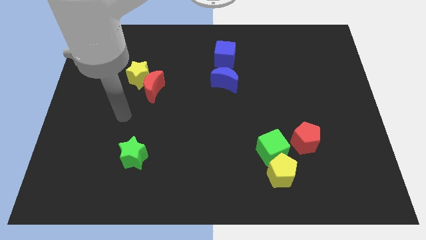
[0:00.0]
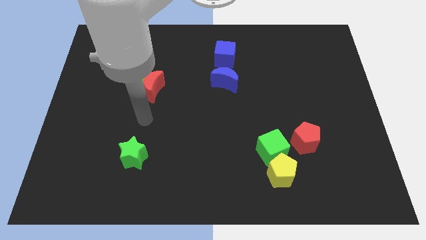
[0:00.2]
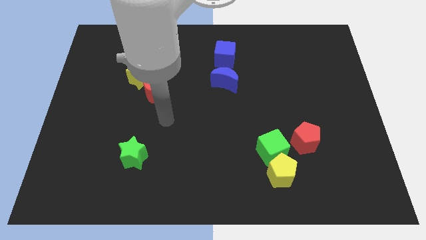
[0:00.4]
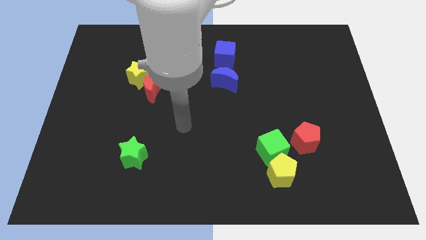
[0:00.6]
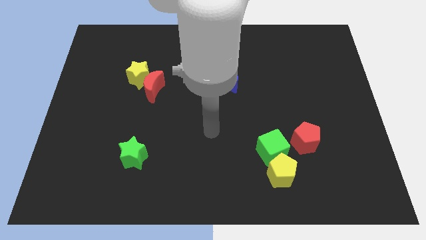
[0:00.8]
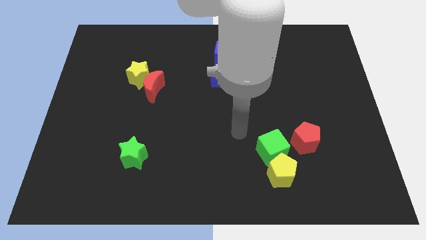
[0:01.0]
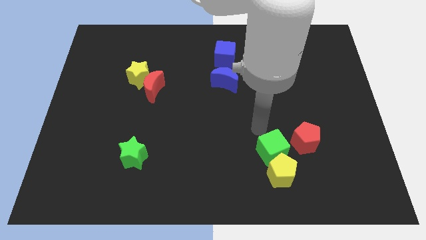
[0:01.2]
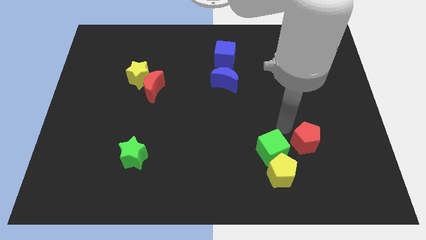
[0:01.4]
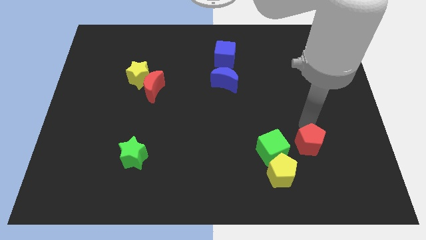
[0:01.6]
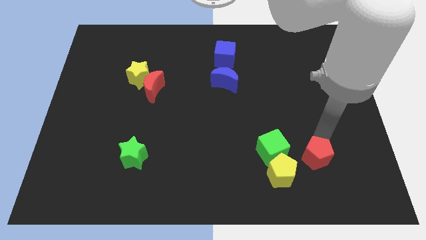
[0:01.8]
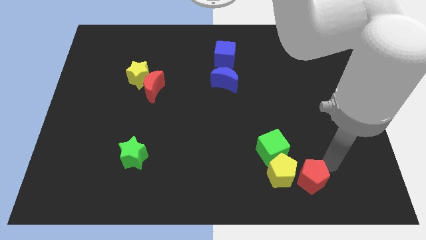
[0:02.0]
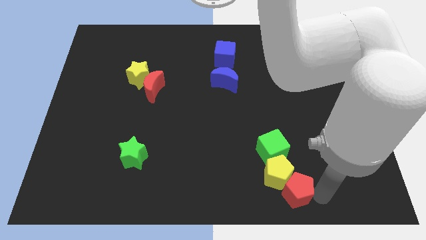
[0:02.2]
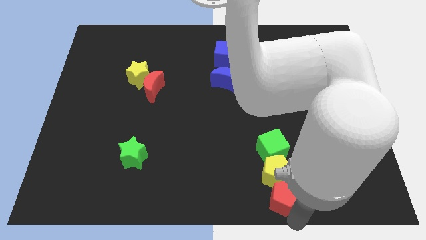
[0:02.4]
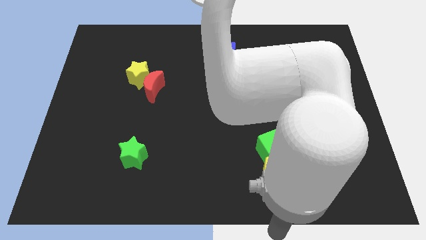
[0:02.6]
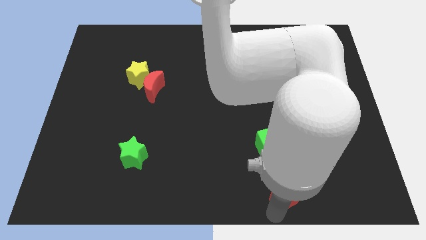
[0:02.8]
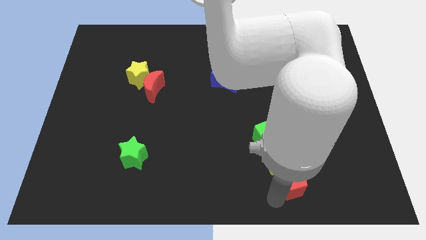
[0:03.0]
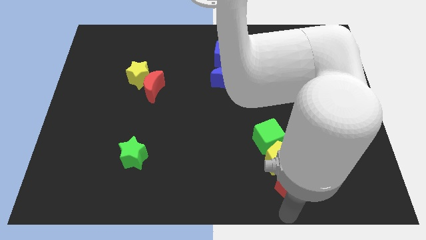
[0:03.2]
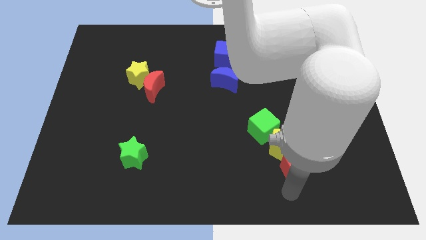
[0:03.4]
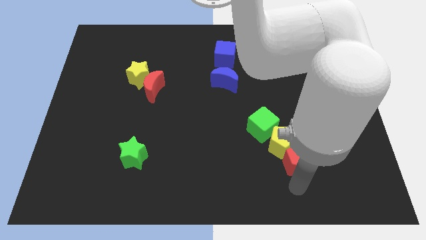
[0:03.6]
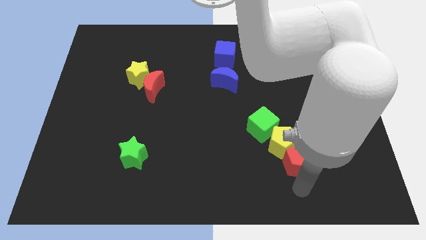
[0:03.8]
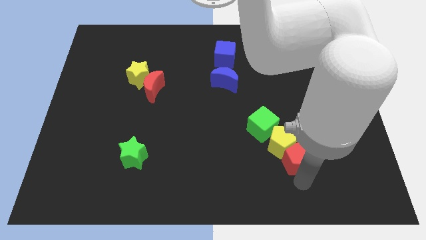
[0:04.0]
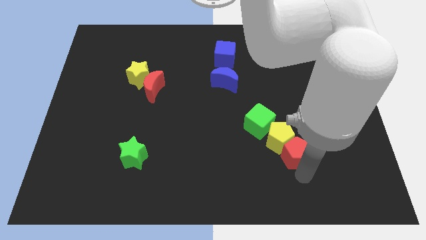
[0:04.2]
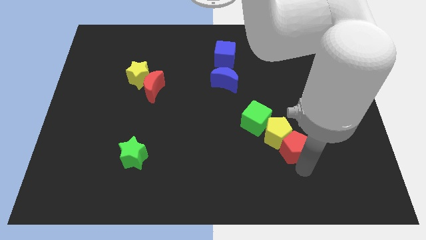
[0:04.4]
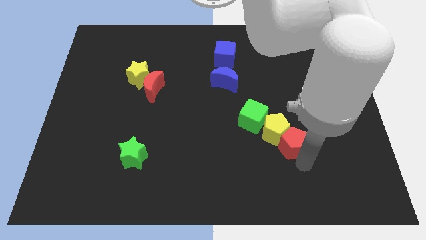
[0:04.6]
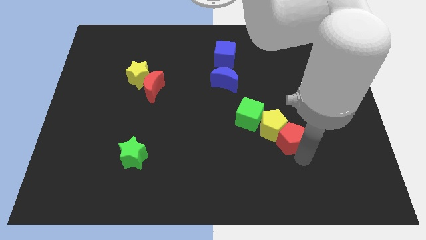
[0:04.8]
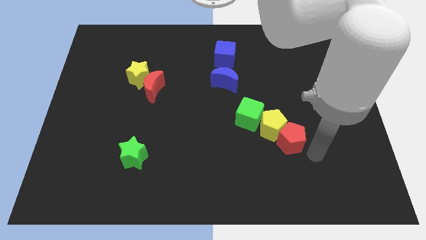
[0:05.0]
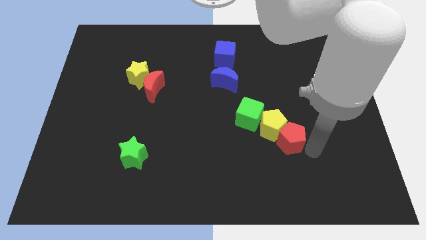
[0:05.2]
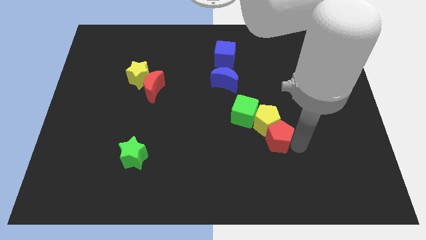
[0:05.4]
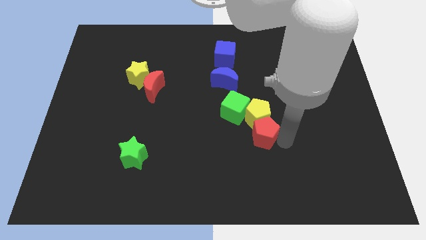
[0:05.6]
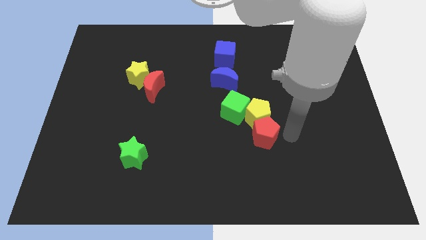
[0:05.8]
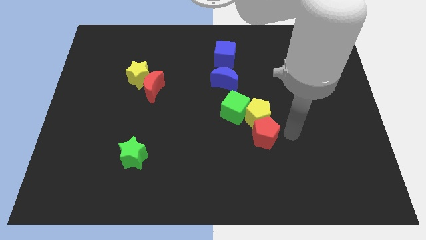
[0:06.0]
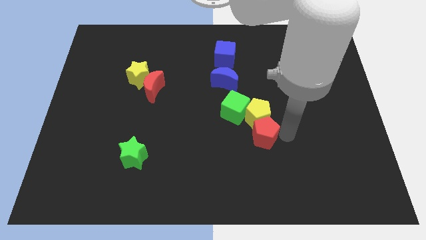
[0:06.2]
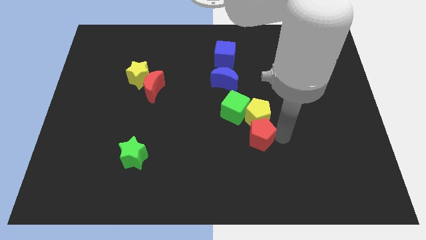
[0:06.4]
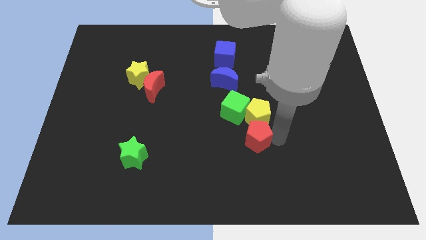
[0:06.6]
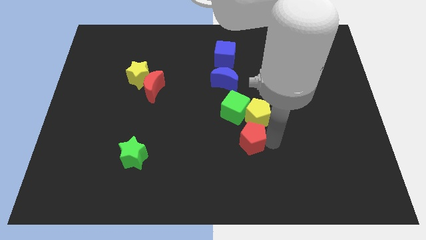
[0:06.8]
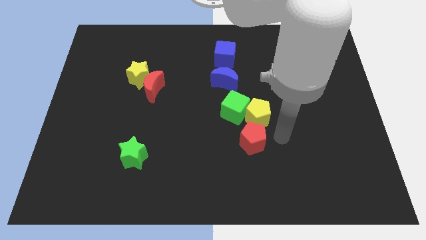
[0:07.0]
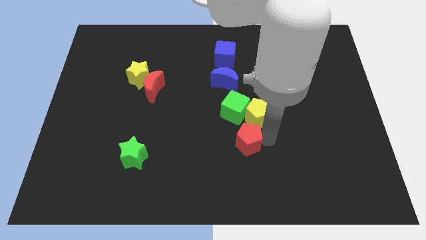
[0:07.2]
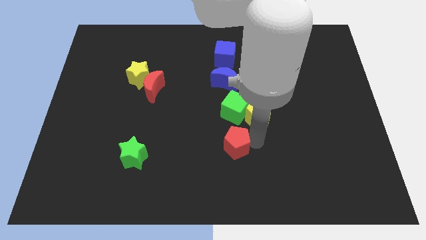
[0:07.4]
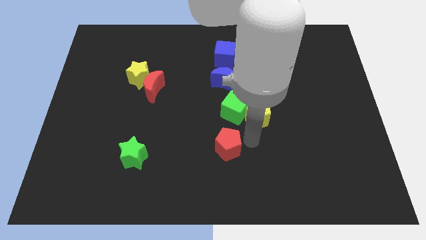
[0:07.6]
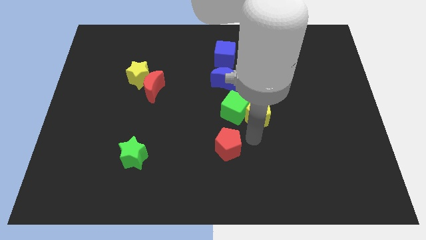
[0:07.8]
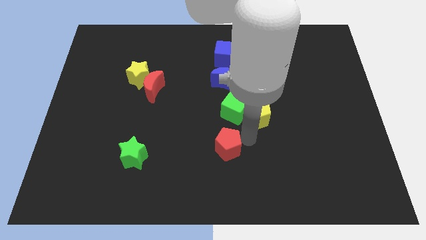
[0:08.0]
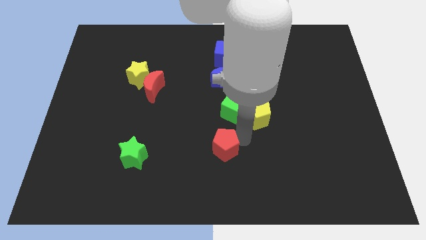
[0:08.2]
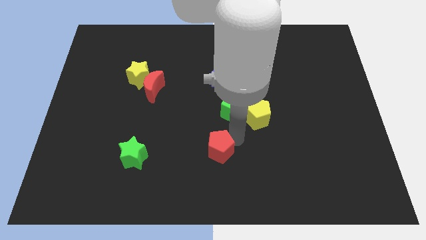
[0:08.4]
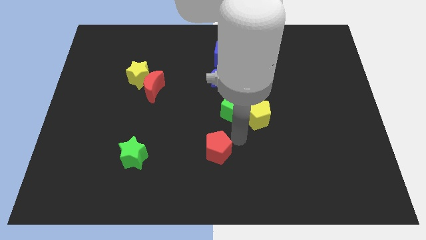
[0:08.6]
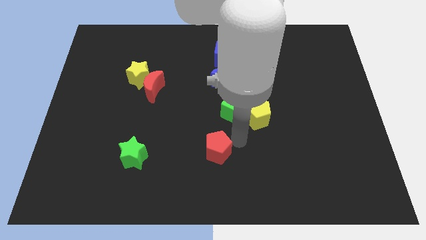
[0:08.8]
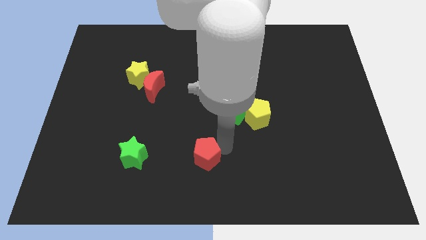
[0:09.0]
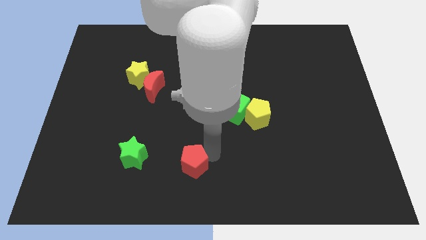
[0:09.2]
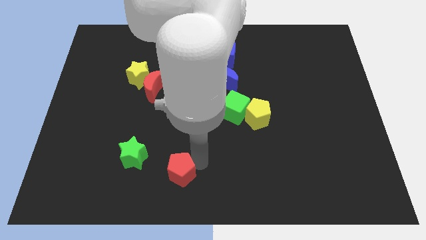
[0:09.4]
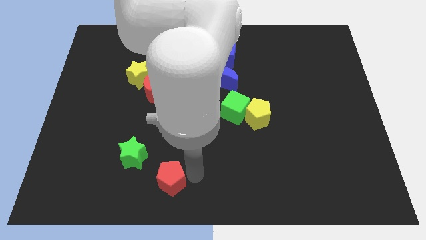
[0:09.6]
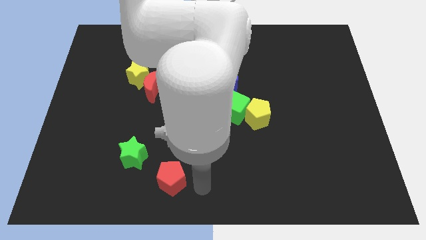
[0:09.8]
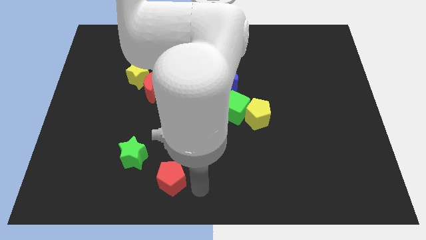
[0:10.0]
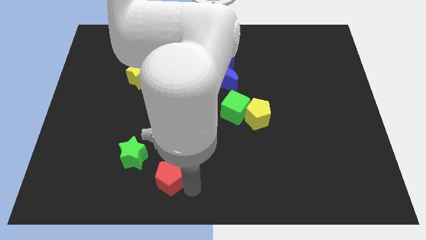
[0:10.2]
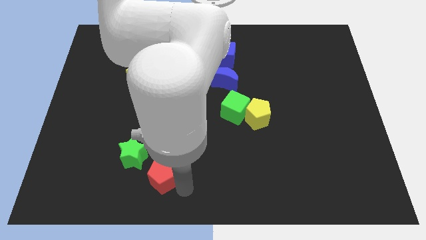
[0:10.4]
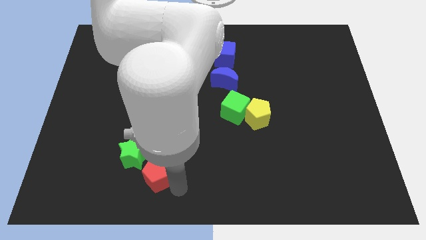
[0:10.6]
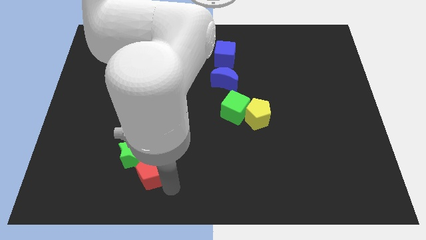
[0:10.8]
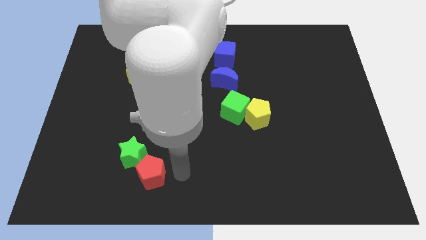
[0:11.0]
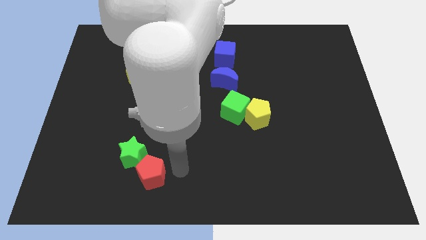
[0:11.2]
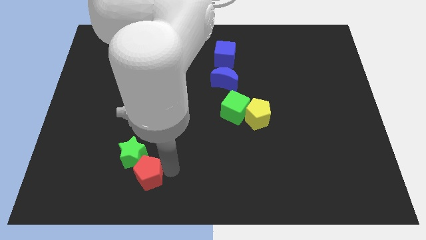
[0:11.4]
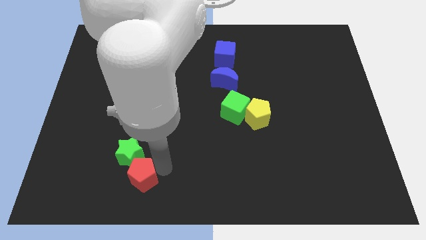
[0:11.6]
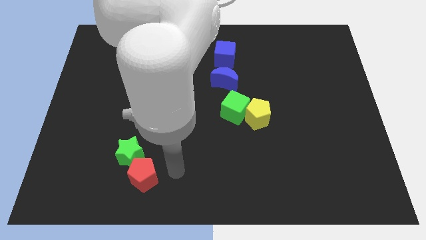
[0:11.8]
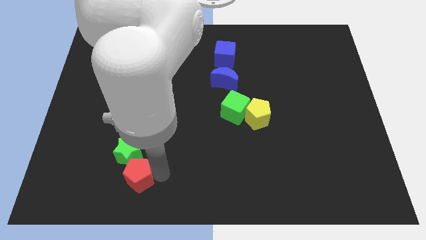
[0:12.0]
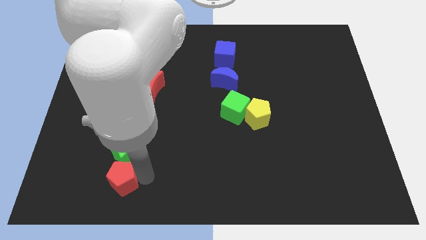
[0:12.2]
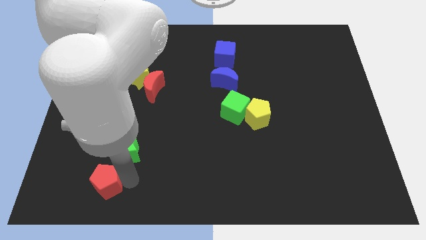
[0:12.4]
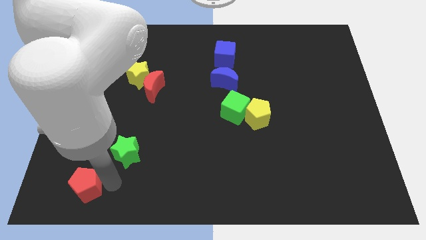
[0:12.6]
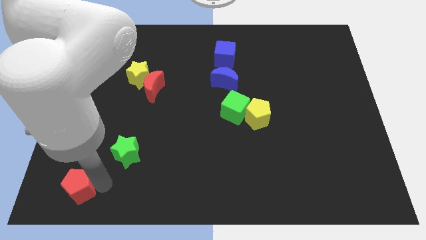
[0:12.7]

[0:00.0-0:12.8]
move the red pentagon to the bottom left of the board

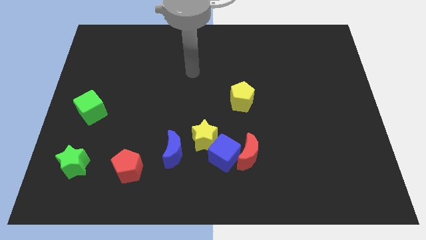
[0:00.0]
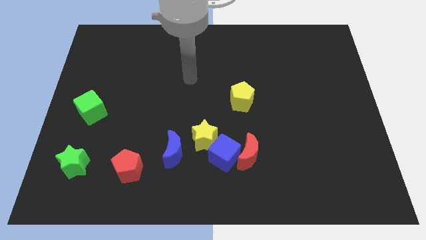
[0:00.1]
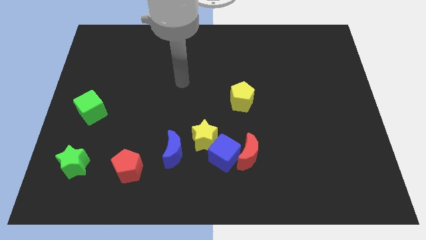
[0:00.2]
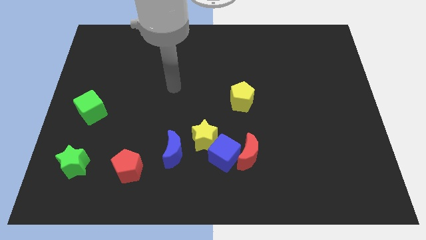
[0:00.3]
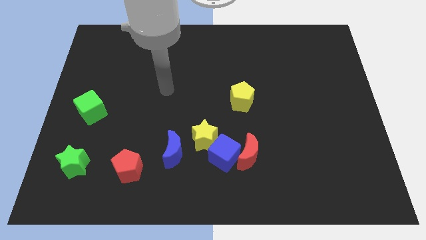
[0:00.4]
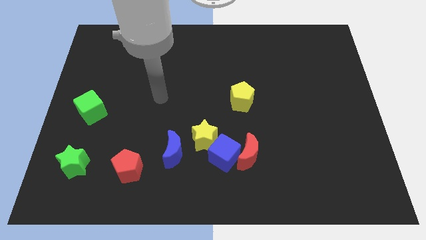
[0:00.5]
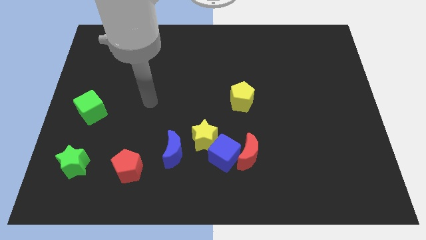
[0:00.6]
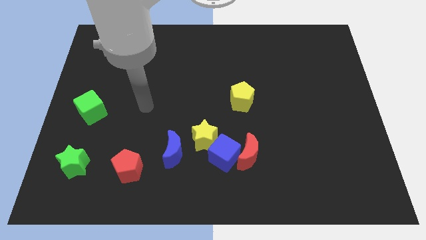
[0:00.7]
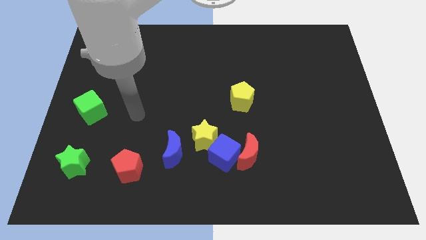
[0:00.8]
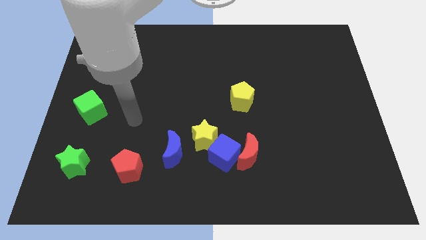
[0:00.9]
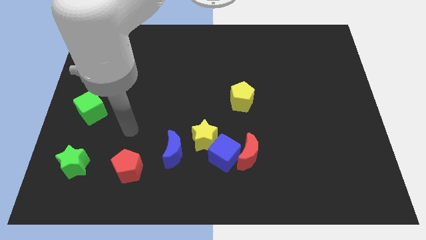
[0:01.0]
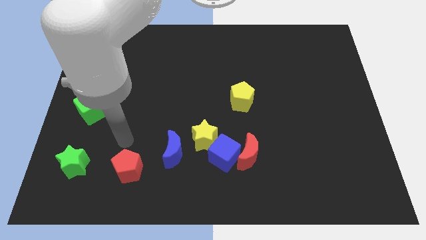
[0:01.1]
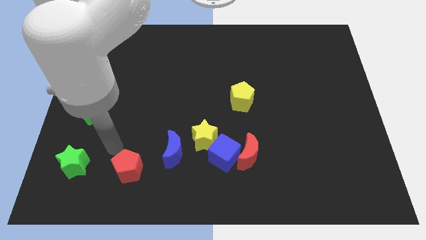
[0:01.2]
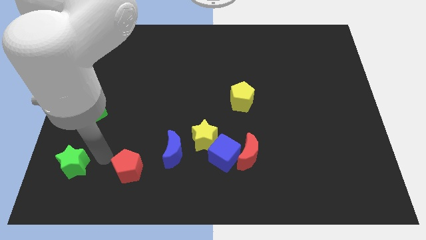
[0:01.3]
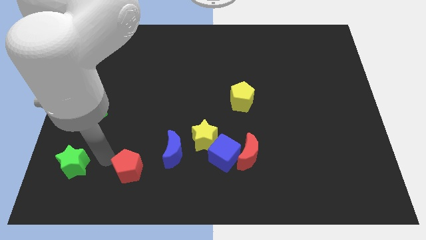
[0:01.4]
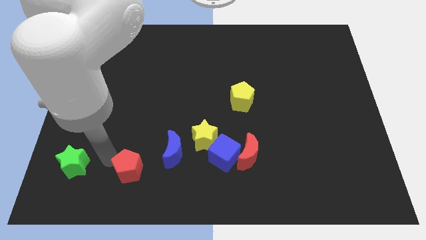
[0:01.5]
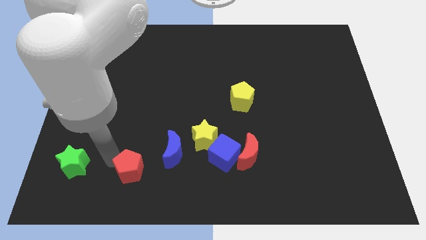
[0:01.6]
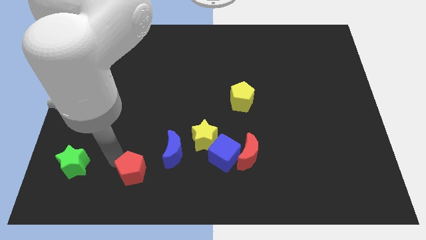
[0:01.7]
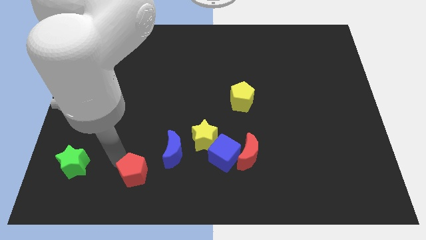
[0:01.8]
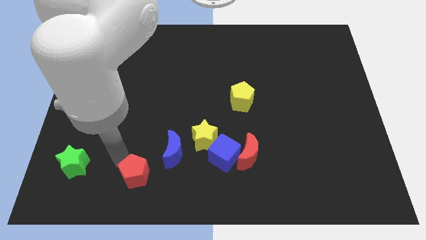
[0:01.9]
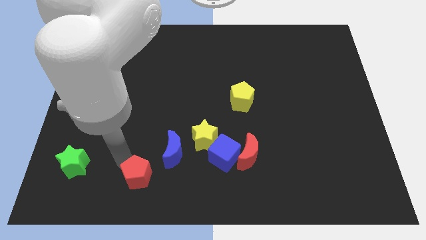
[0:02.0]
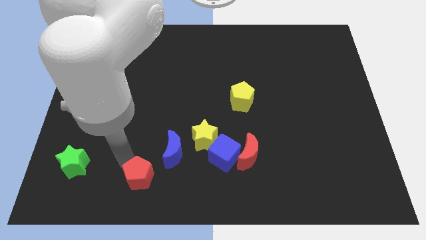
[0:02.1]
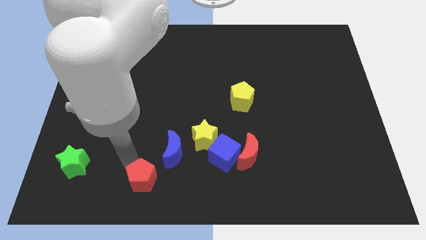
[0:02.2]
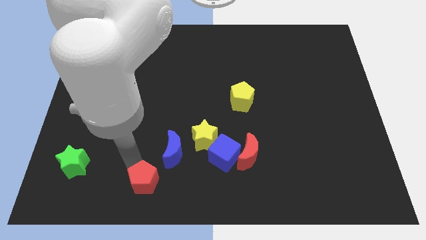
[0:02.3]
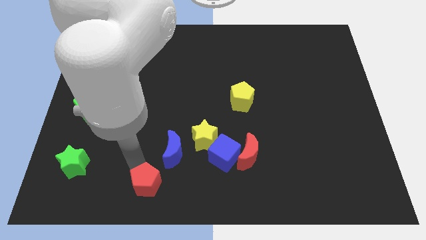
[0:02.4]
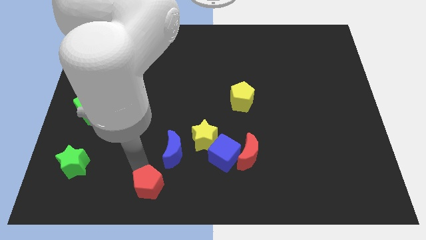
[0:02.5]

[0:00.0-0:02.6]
put the red pentagon to the bottom
